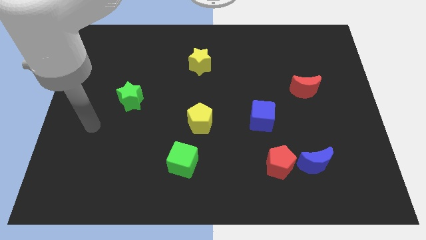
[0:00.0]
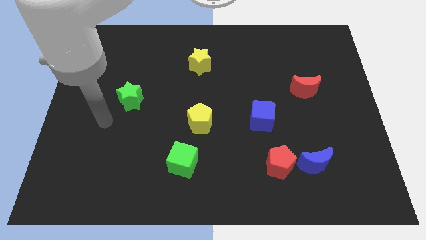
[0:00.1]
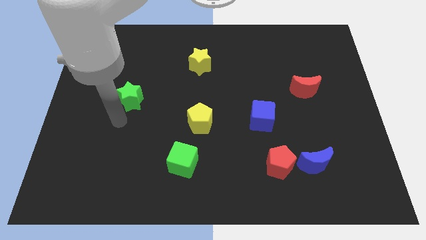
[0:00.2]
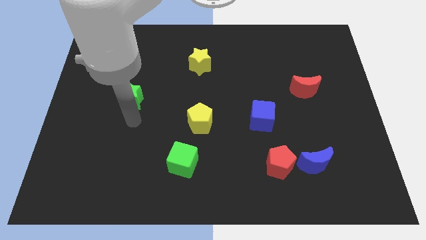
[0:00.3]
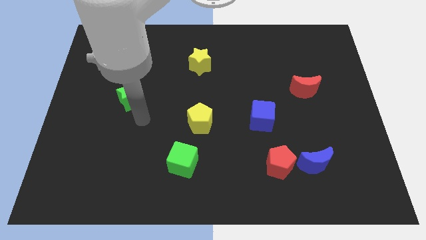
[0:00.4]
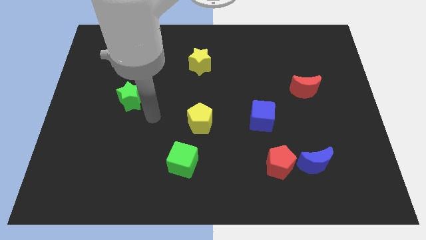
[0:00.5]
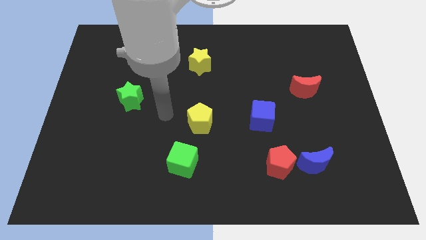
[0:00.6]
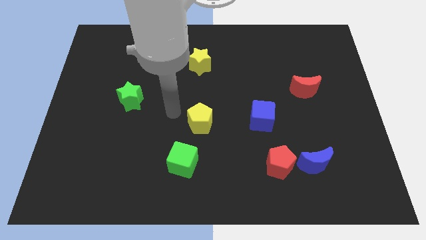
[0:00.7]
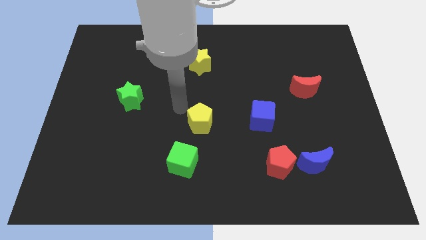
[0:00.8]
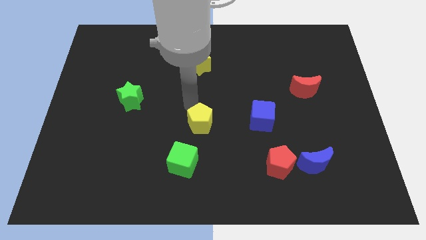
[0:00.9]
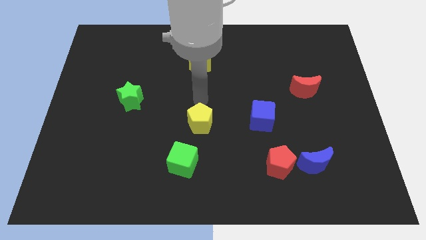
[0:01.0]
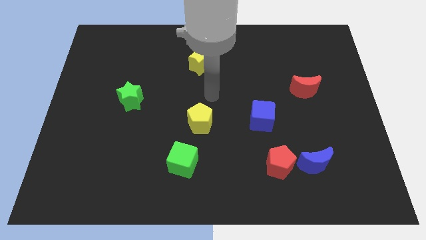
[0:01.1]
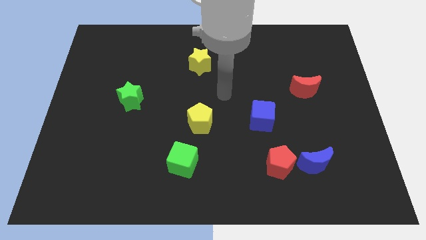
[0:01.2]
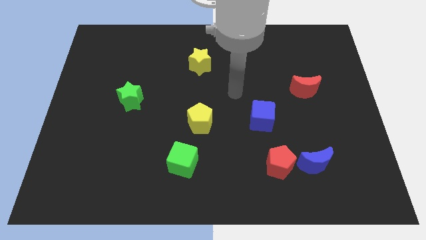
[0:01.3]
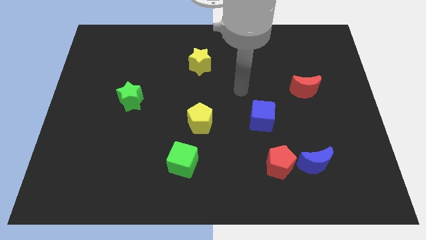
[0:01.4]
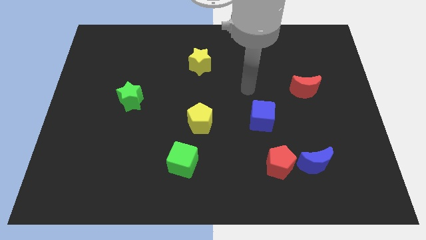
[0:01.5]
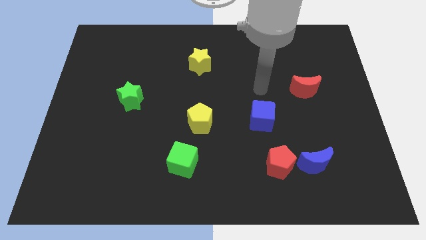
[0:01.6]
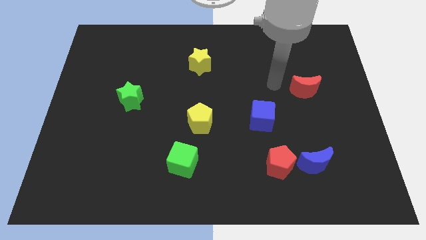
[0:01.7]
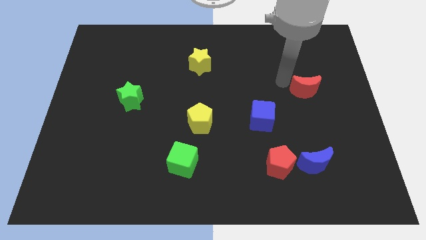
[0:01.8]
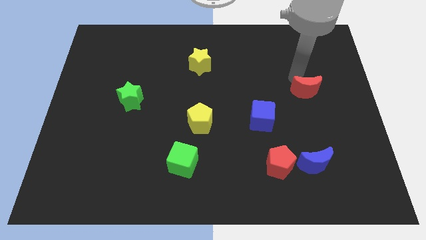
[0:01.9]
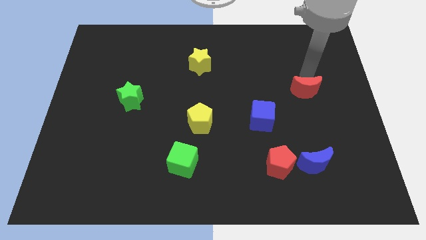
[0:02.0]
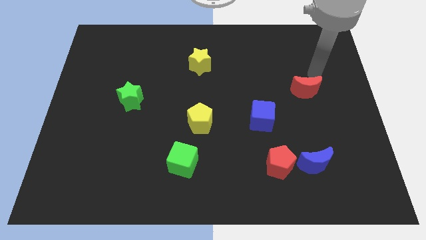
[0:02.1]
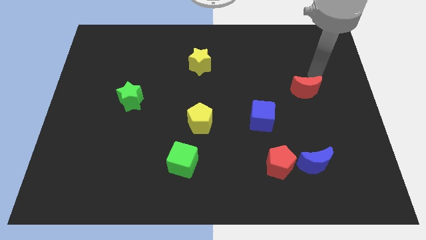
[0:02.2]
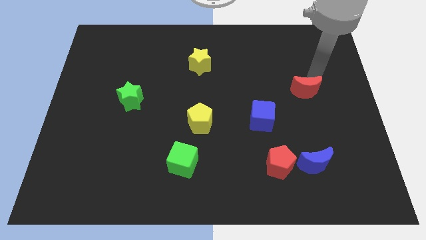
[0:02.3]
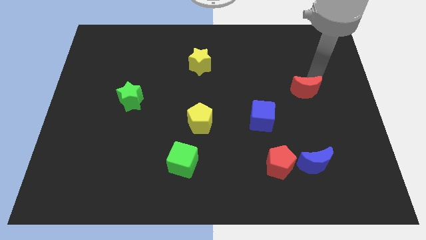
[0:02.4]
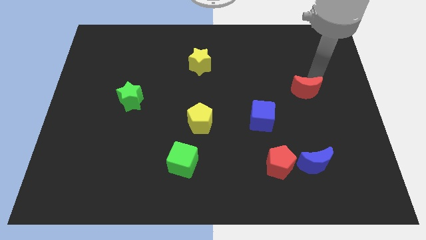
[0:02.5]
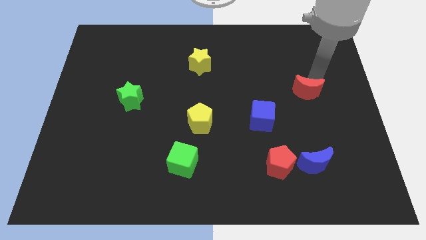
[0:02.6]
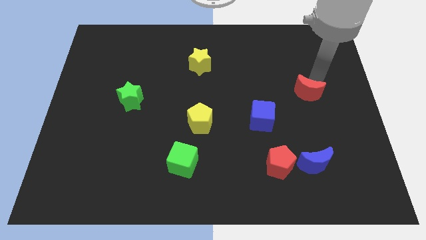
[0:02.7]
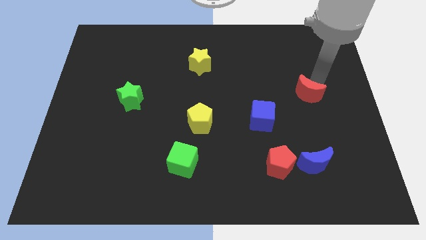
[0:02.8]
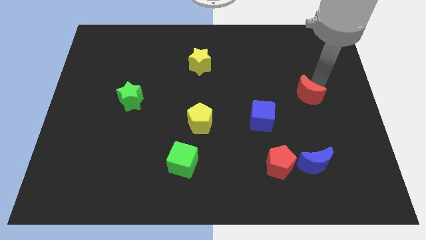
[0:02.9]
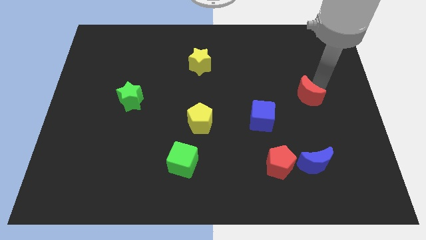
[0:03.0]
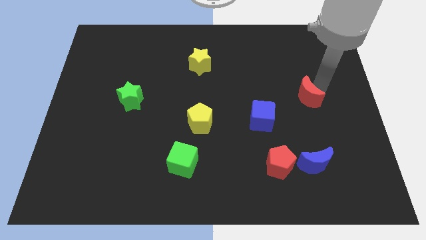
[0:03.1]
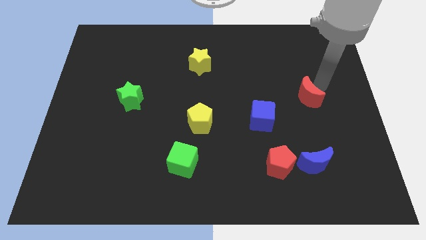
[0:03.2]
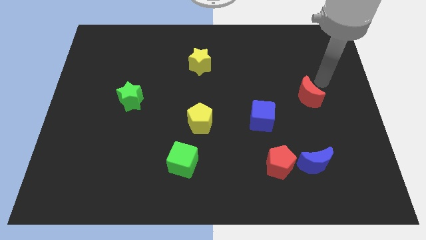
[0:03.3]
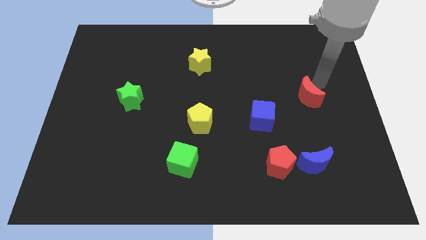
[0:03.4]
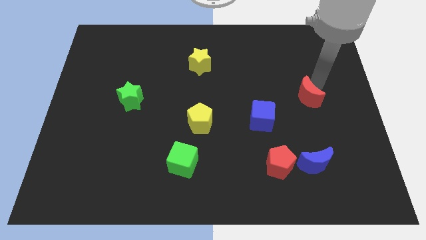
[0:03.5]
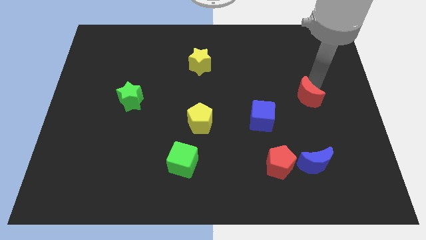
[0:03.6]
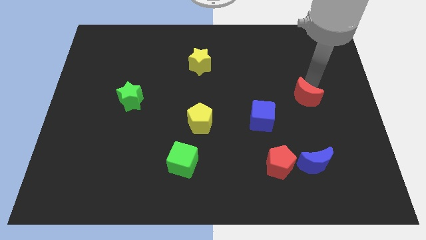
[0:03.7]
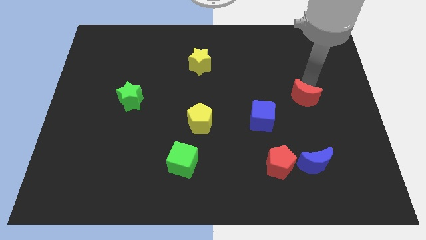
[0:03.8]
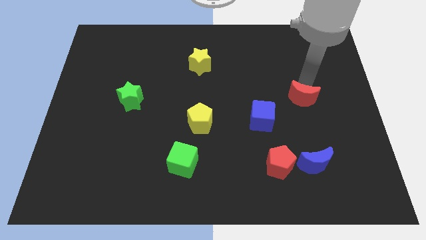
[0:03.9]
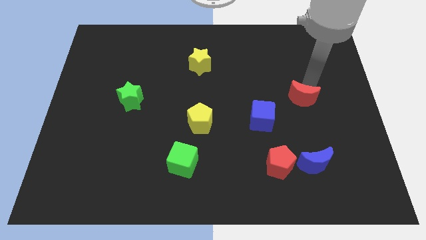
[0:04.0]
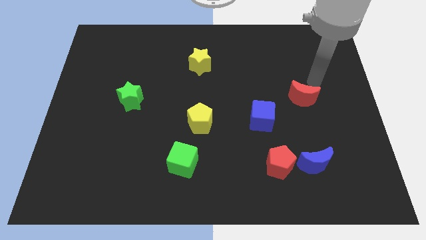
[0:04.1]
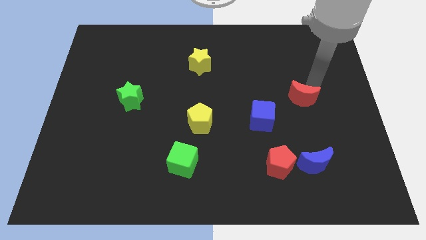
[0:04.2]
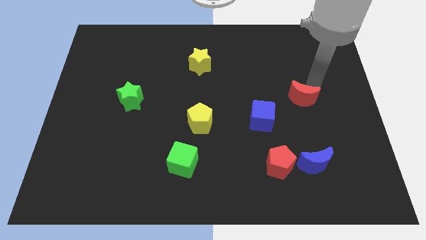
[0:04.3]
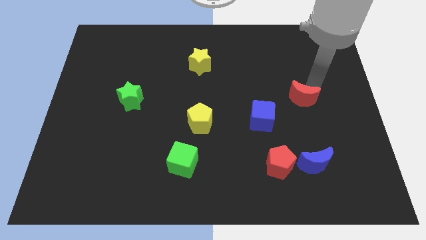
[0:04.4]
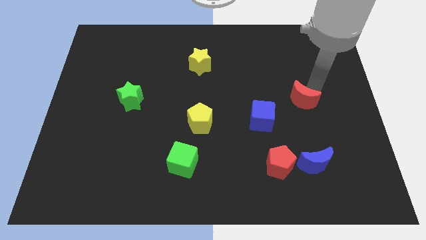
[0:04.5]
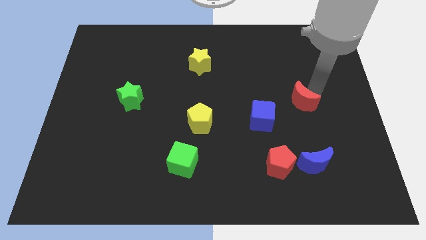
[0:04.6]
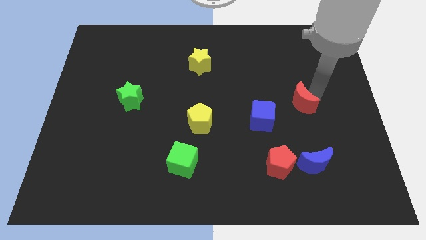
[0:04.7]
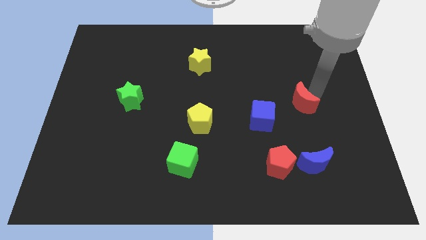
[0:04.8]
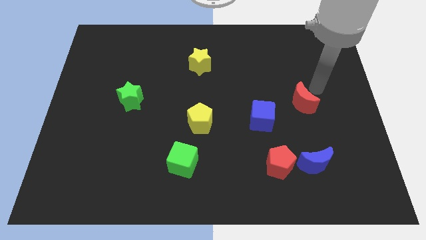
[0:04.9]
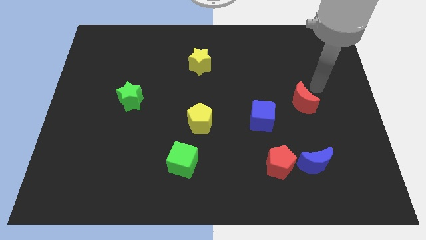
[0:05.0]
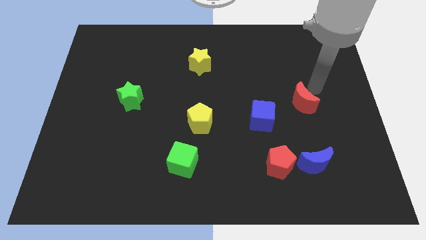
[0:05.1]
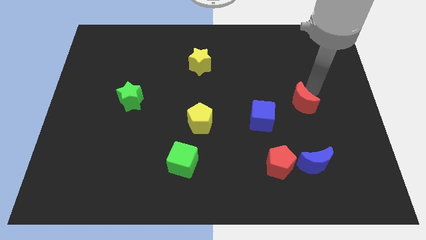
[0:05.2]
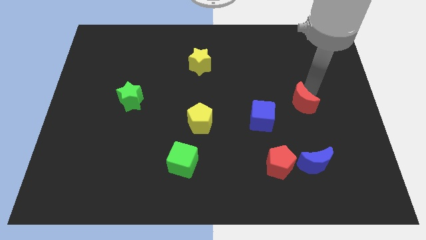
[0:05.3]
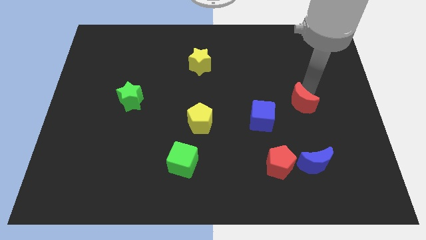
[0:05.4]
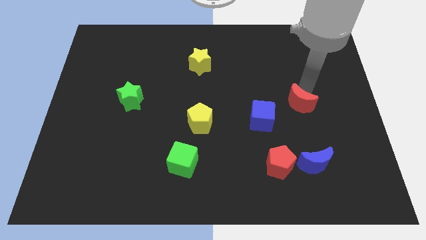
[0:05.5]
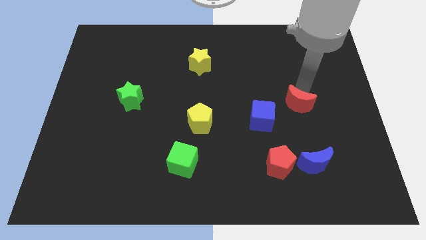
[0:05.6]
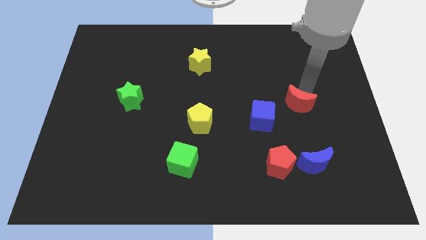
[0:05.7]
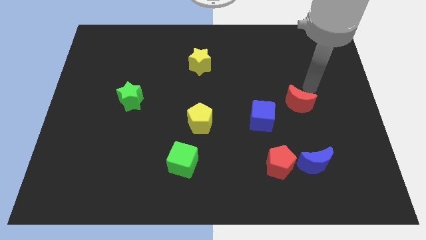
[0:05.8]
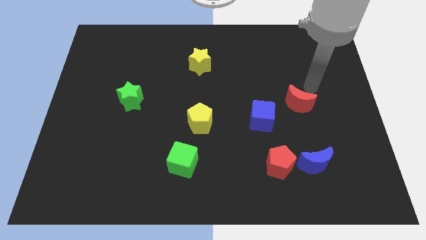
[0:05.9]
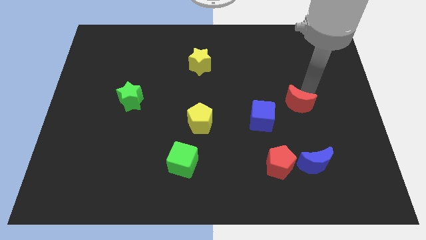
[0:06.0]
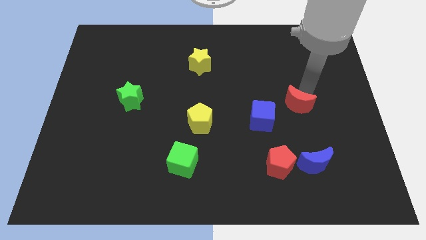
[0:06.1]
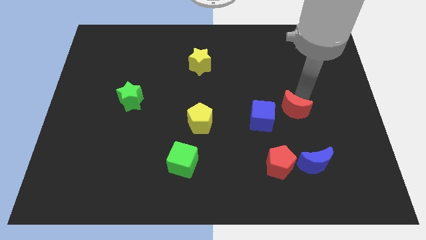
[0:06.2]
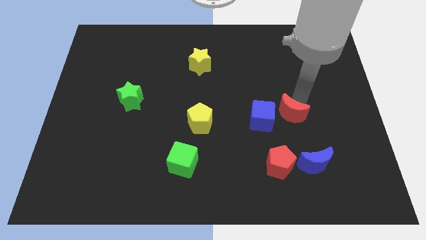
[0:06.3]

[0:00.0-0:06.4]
slightly move the red moon down and to the left diagonally

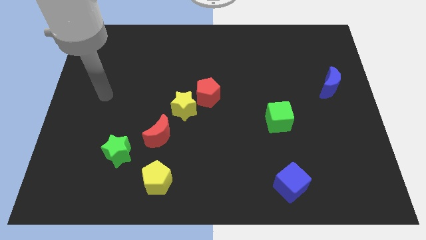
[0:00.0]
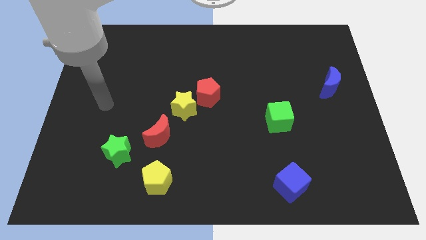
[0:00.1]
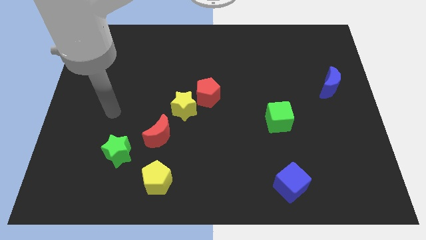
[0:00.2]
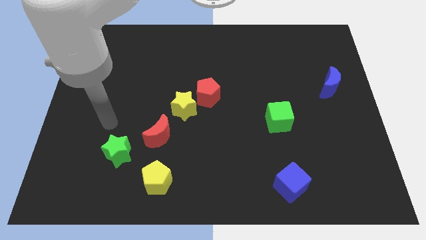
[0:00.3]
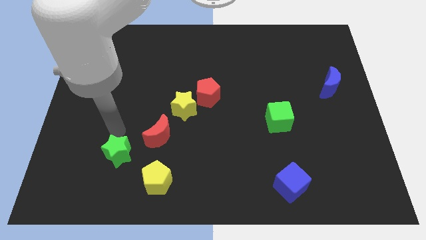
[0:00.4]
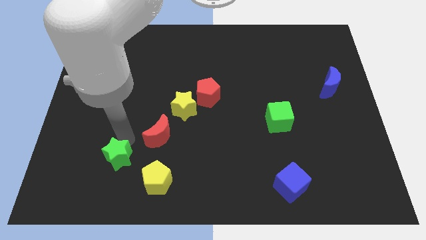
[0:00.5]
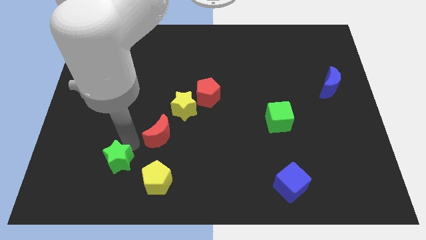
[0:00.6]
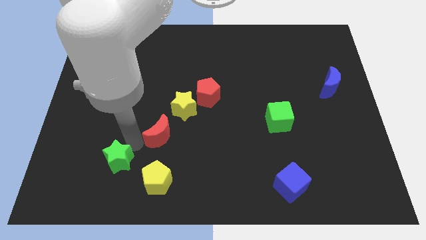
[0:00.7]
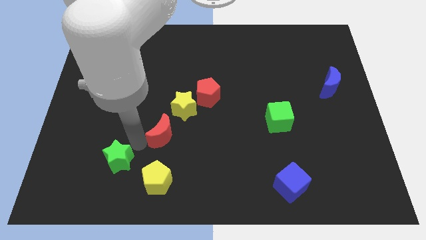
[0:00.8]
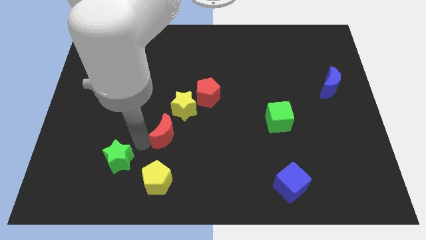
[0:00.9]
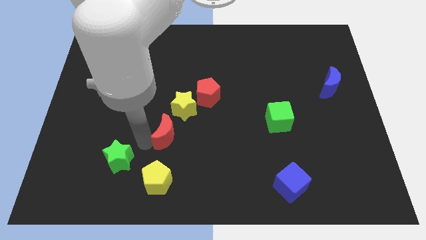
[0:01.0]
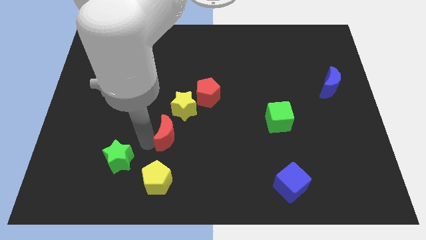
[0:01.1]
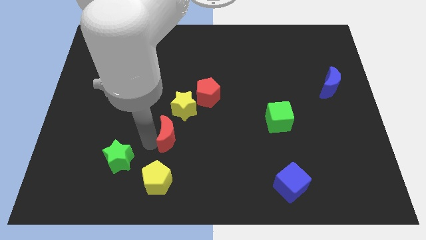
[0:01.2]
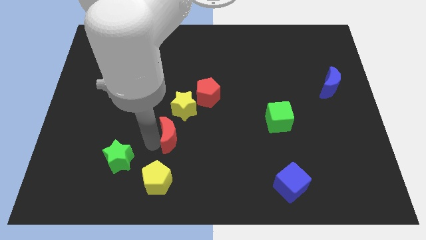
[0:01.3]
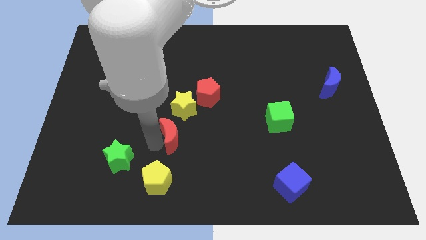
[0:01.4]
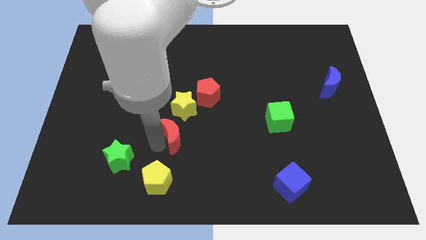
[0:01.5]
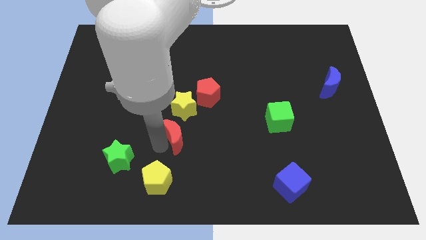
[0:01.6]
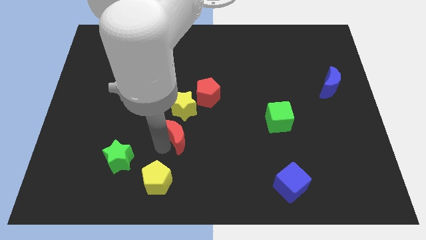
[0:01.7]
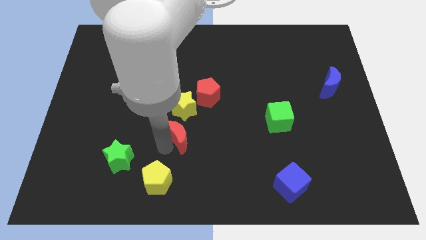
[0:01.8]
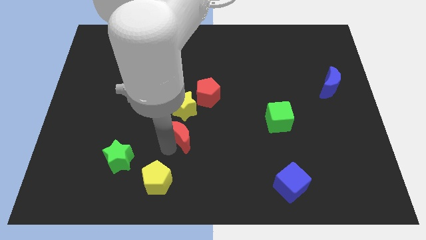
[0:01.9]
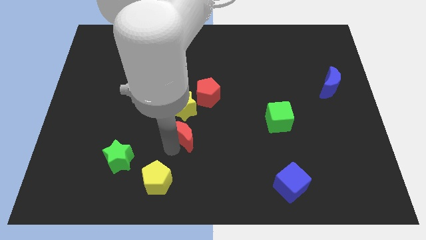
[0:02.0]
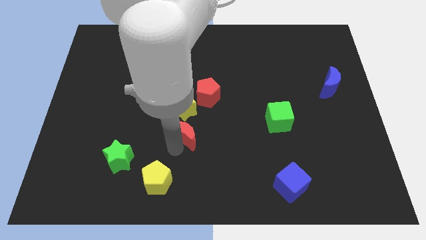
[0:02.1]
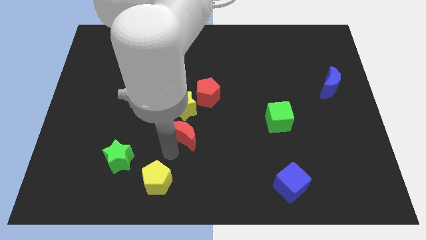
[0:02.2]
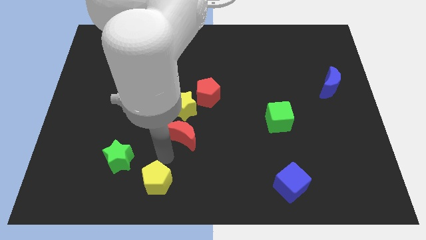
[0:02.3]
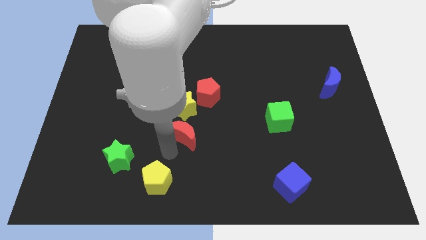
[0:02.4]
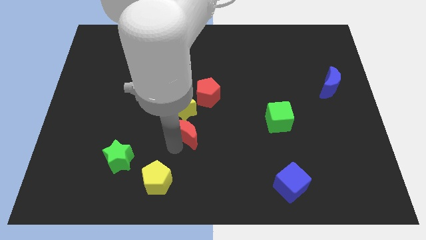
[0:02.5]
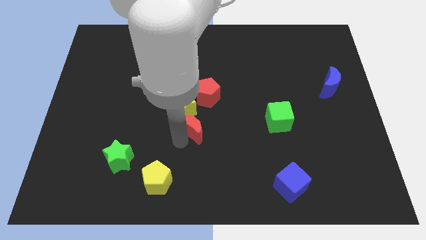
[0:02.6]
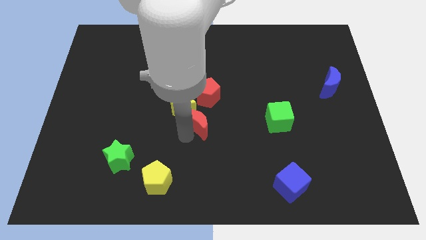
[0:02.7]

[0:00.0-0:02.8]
slide the red moon upwards and to the right a bit
